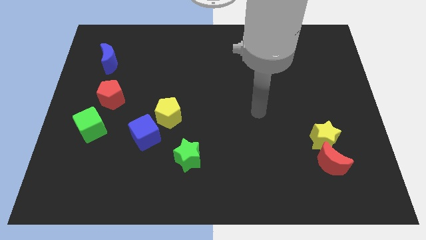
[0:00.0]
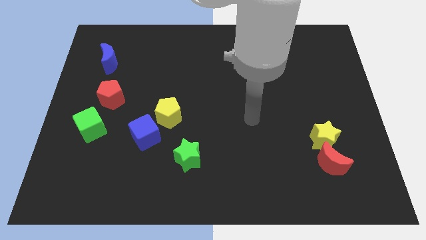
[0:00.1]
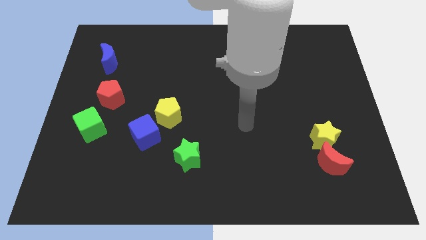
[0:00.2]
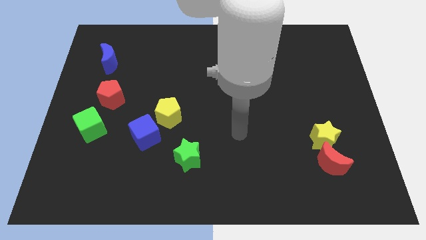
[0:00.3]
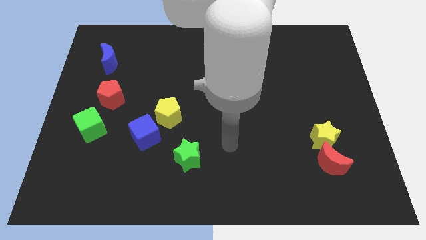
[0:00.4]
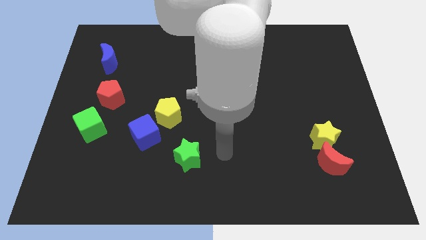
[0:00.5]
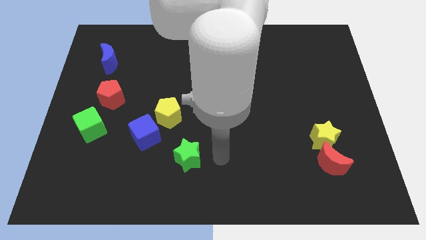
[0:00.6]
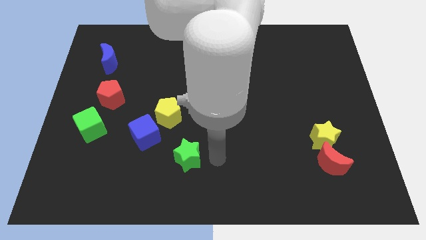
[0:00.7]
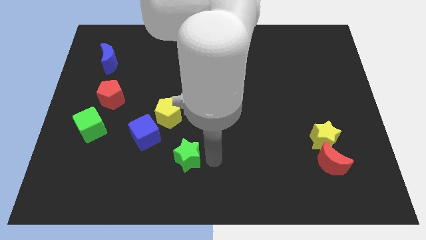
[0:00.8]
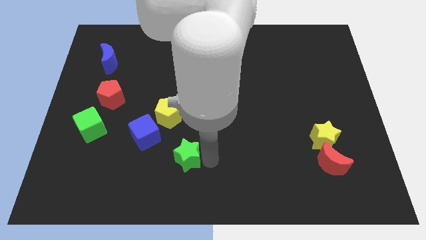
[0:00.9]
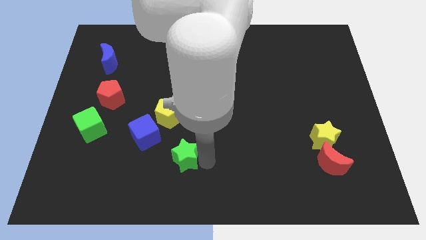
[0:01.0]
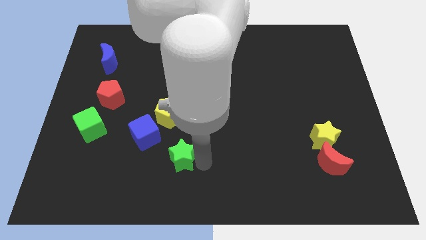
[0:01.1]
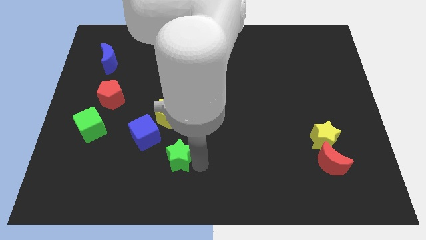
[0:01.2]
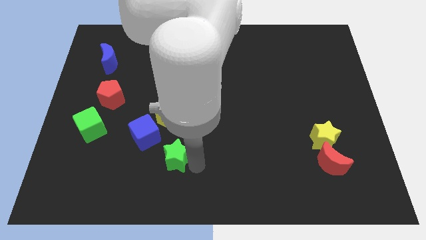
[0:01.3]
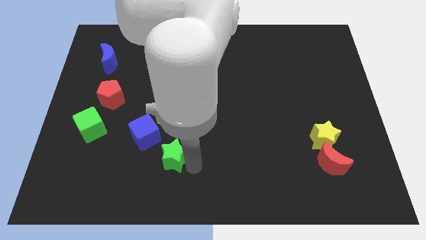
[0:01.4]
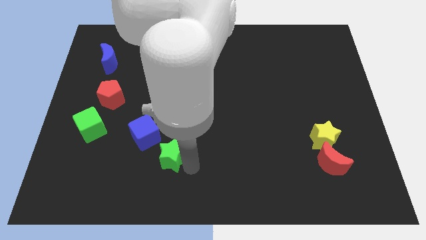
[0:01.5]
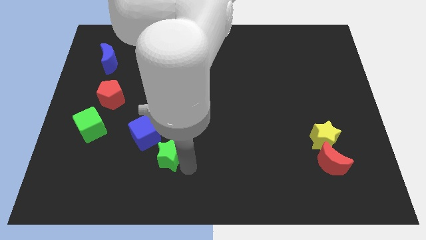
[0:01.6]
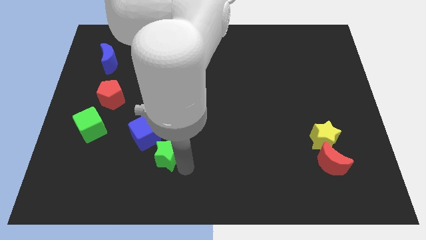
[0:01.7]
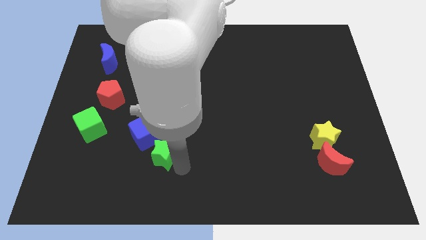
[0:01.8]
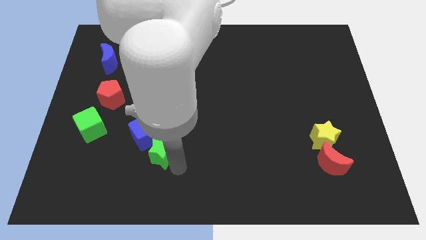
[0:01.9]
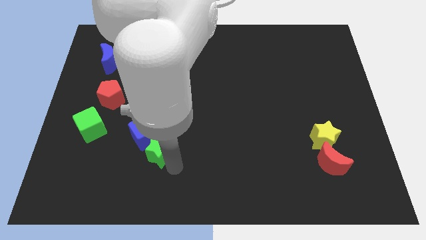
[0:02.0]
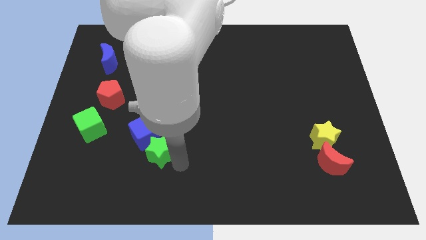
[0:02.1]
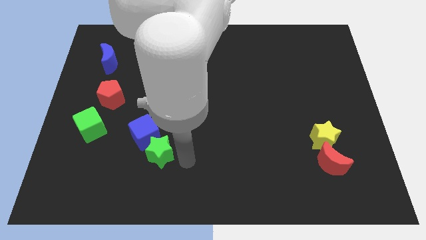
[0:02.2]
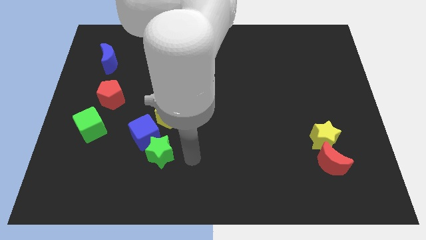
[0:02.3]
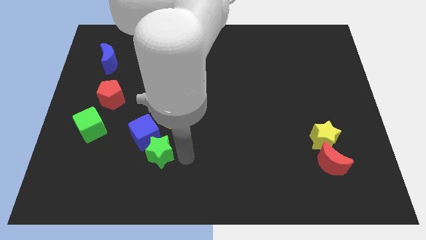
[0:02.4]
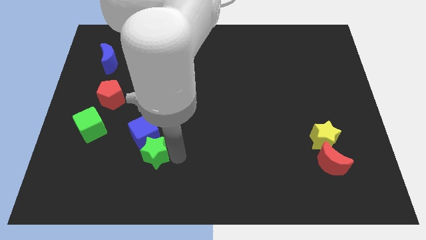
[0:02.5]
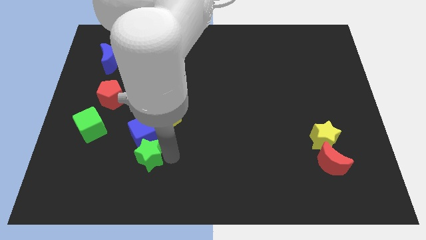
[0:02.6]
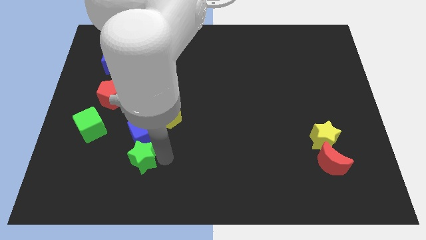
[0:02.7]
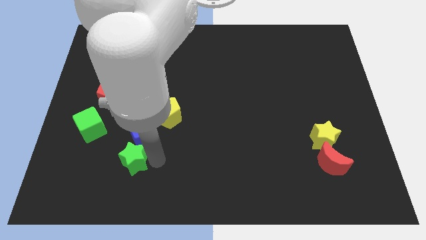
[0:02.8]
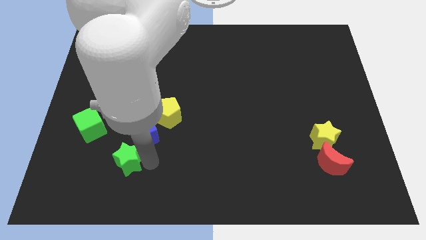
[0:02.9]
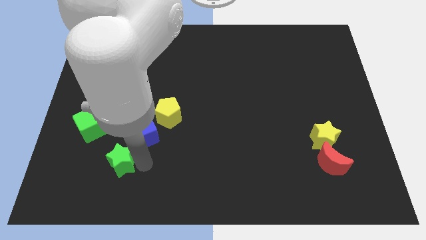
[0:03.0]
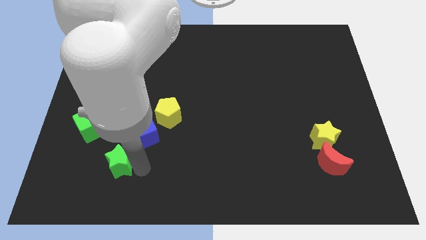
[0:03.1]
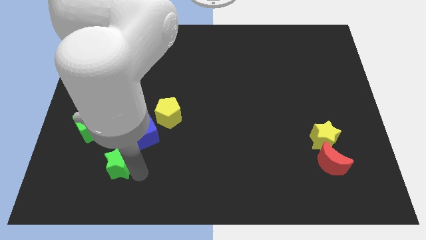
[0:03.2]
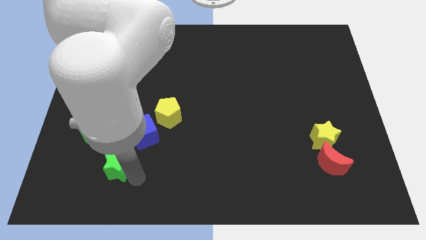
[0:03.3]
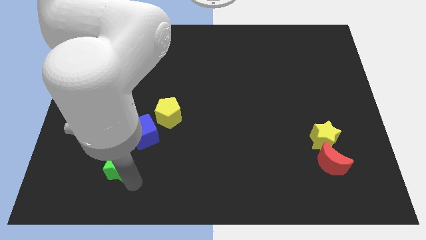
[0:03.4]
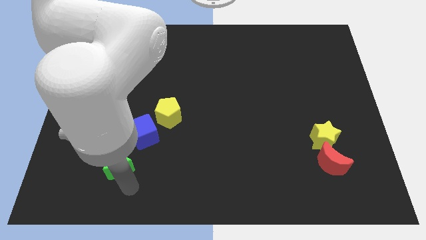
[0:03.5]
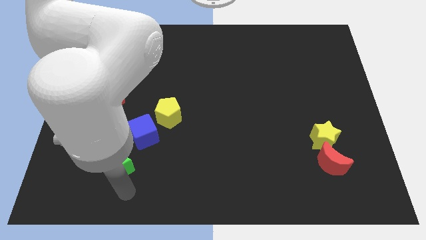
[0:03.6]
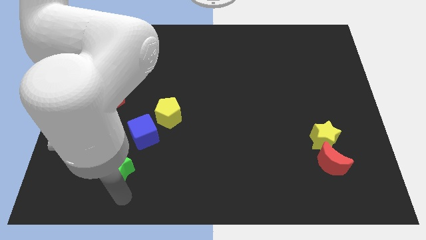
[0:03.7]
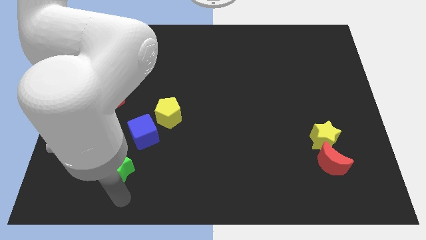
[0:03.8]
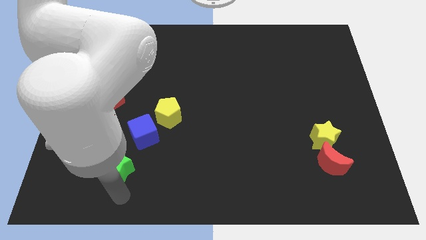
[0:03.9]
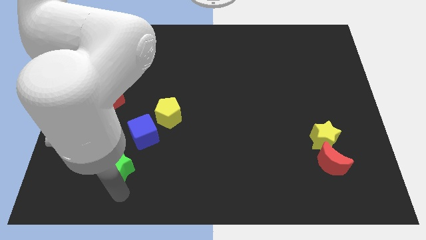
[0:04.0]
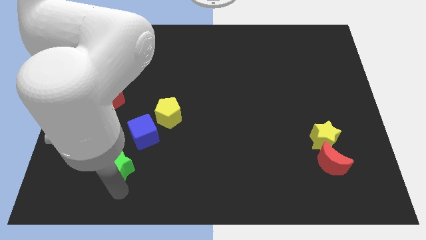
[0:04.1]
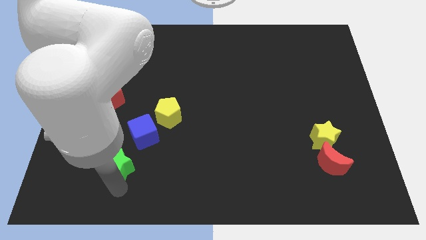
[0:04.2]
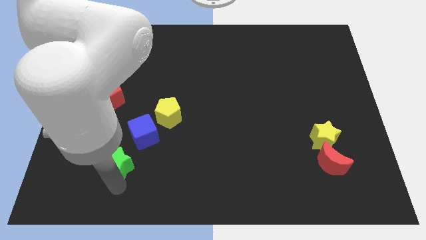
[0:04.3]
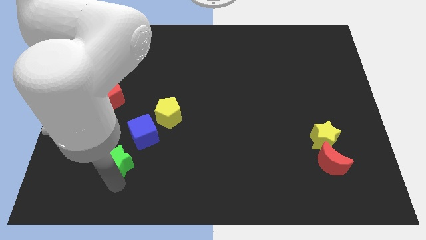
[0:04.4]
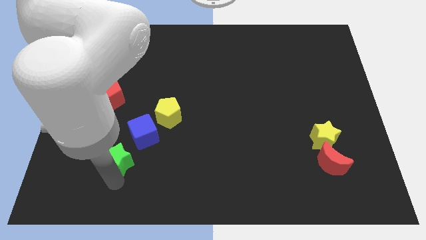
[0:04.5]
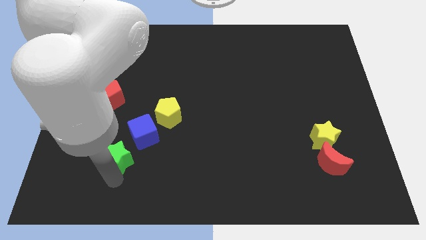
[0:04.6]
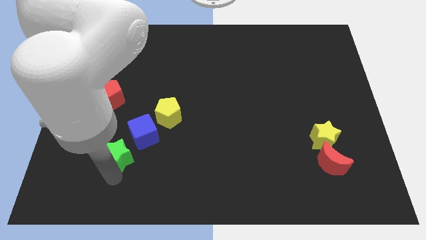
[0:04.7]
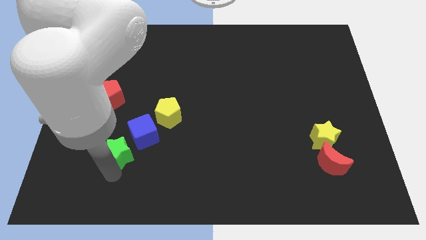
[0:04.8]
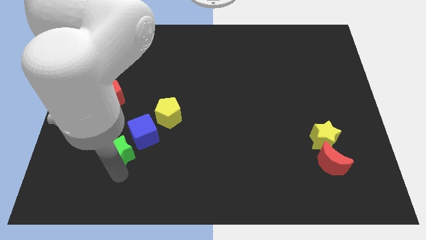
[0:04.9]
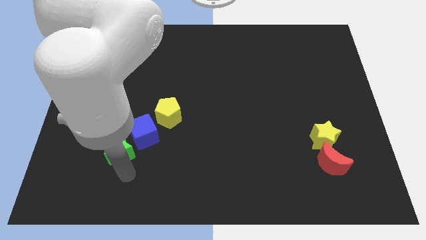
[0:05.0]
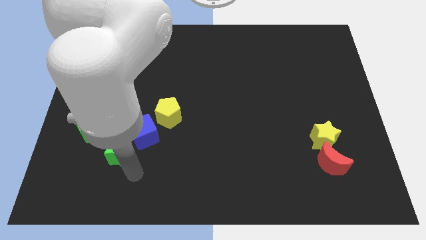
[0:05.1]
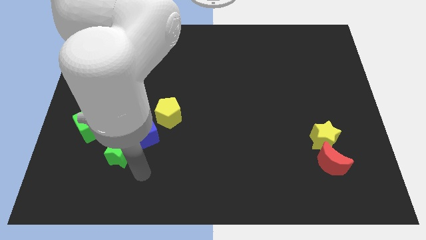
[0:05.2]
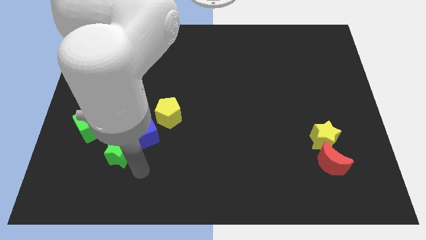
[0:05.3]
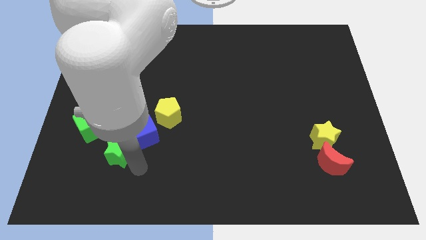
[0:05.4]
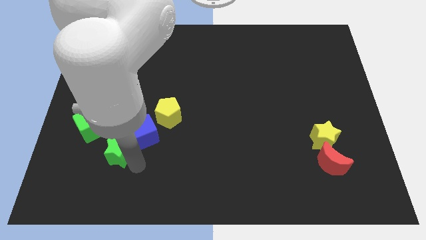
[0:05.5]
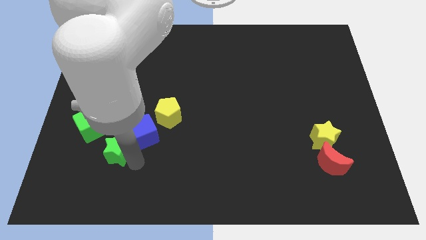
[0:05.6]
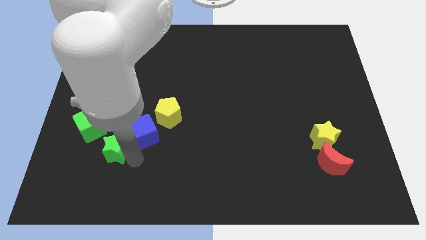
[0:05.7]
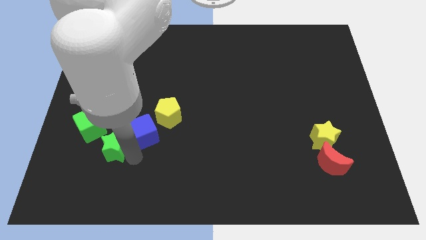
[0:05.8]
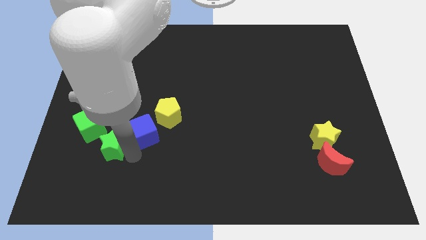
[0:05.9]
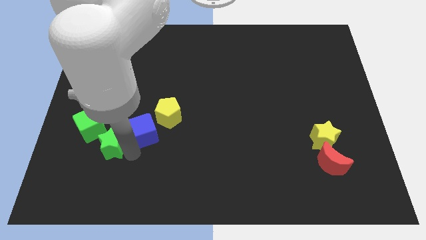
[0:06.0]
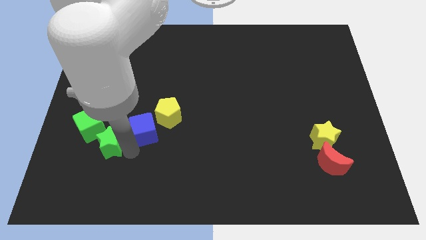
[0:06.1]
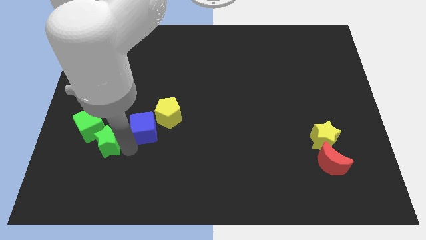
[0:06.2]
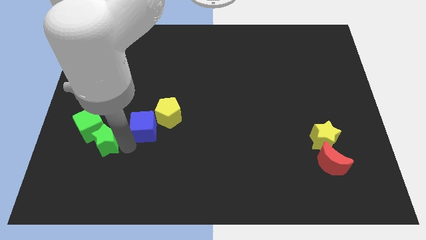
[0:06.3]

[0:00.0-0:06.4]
slide the green star next to the green cube

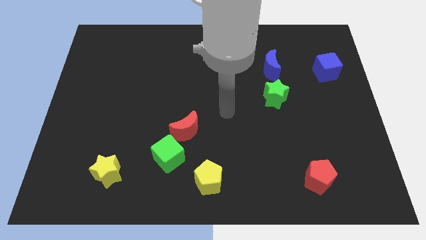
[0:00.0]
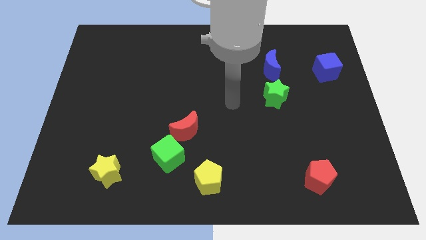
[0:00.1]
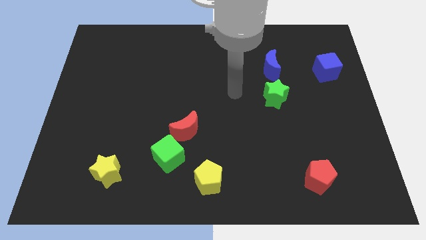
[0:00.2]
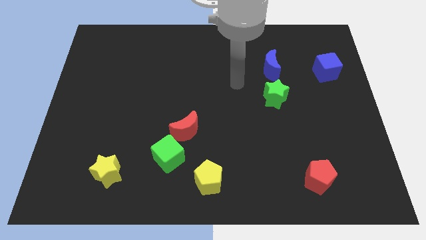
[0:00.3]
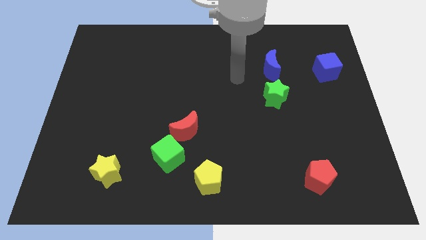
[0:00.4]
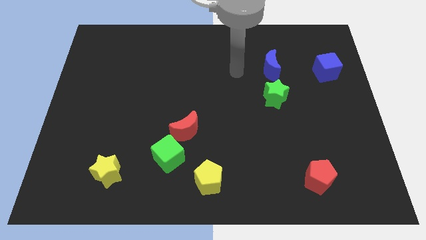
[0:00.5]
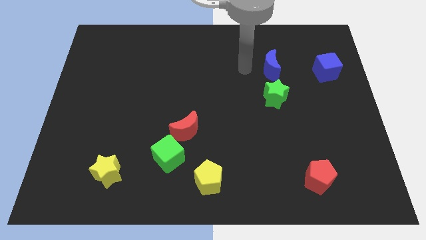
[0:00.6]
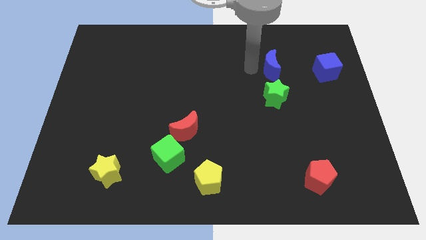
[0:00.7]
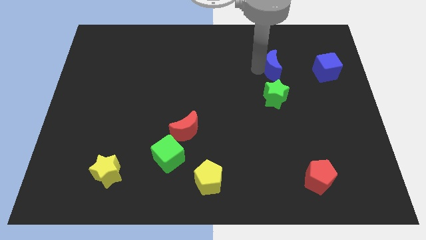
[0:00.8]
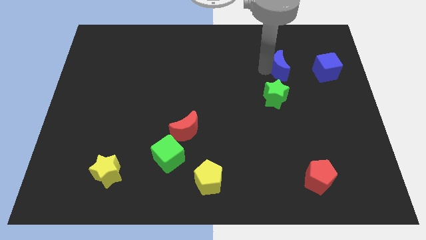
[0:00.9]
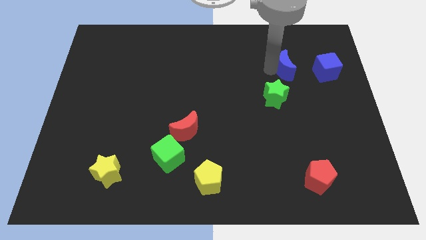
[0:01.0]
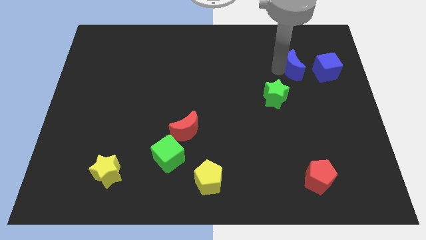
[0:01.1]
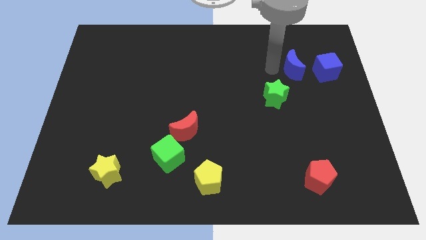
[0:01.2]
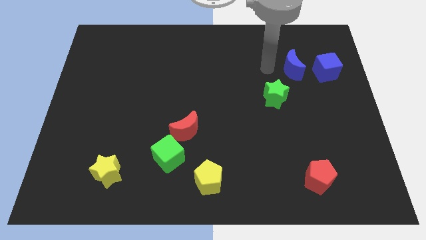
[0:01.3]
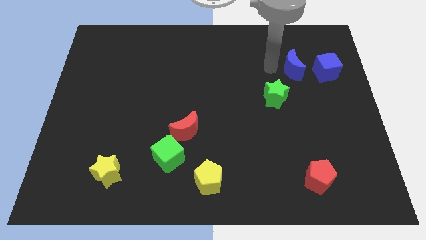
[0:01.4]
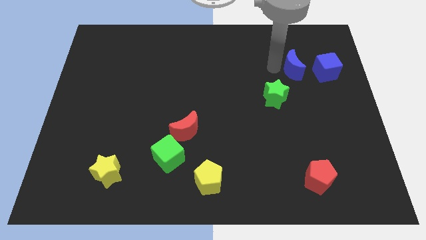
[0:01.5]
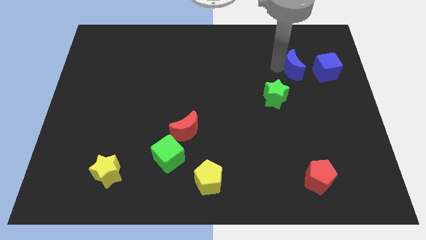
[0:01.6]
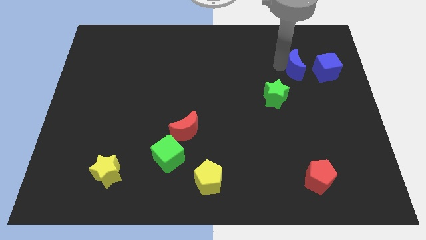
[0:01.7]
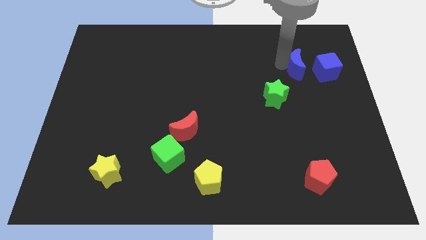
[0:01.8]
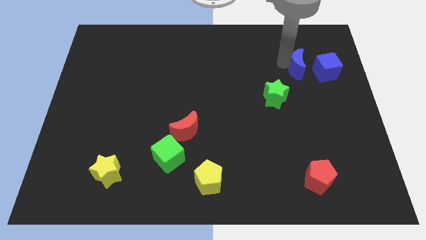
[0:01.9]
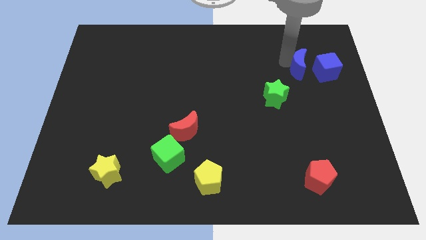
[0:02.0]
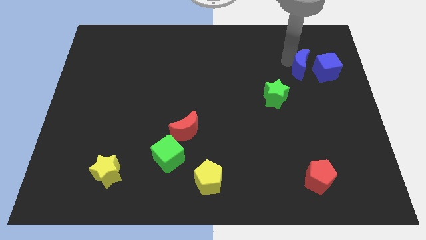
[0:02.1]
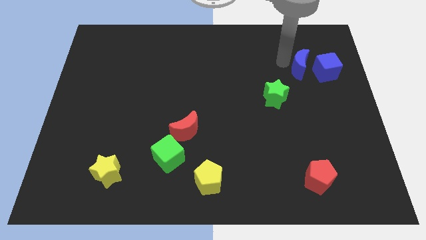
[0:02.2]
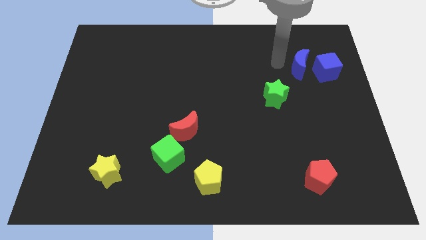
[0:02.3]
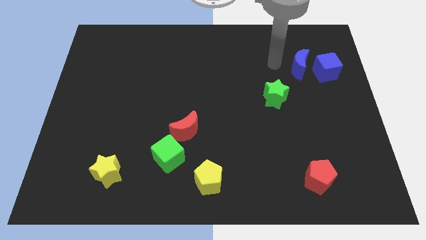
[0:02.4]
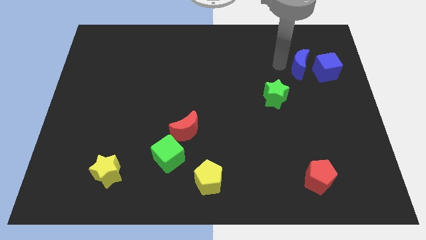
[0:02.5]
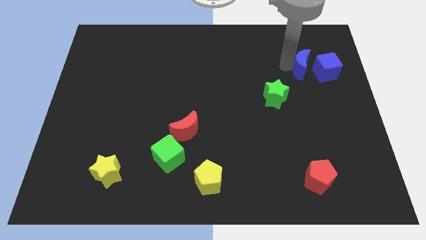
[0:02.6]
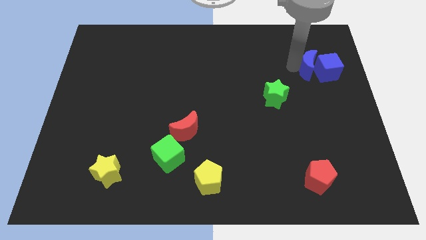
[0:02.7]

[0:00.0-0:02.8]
push the blue moon close to the blue cube
